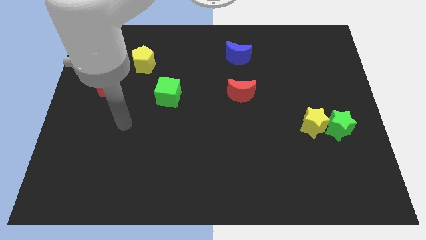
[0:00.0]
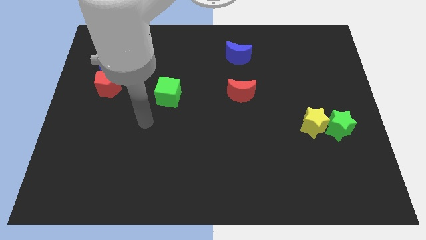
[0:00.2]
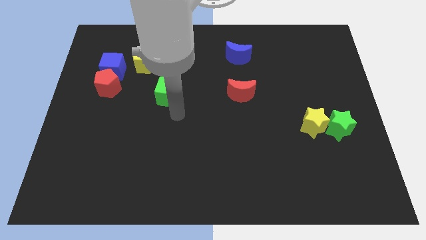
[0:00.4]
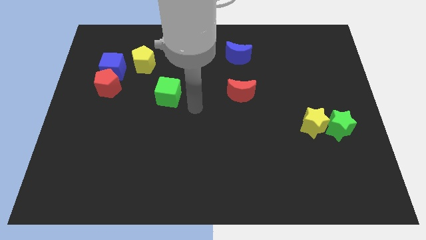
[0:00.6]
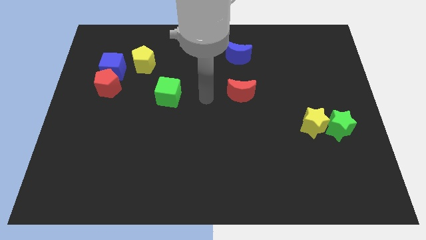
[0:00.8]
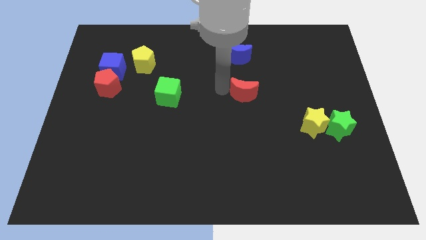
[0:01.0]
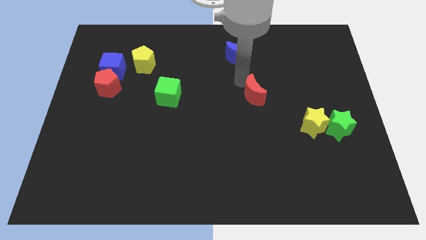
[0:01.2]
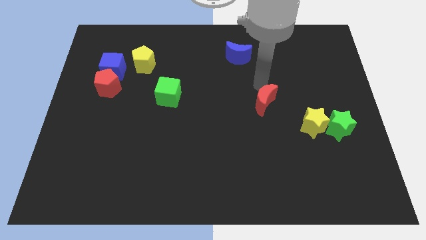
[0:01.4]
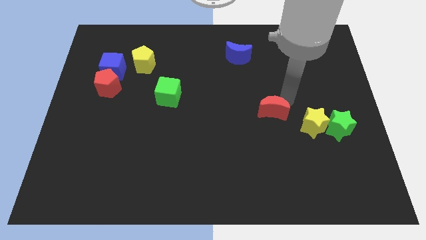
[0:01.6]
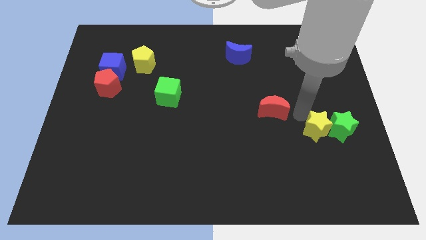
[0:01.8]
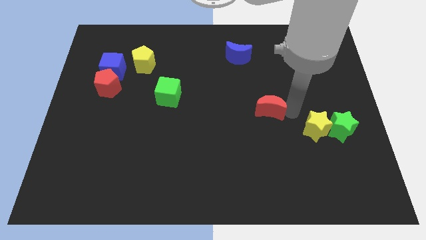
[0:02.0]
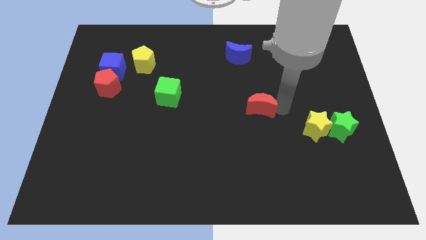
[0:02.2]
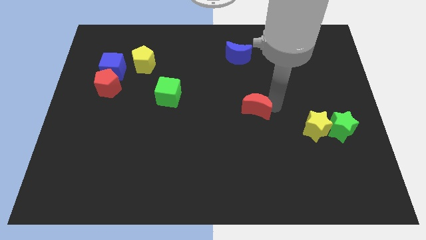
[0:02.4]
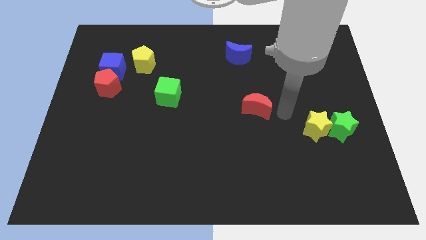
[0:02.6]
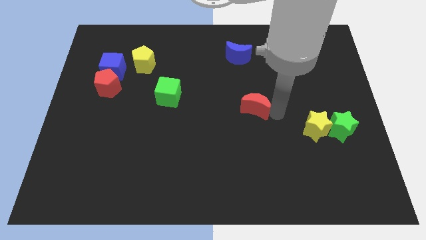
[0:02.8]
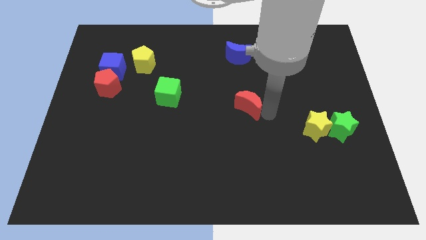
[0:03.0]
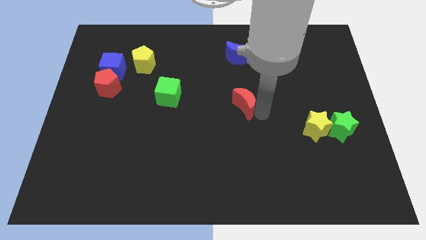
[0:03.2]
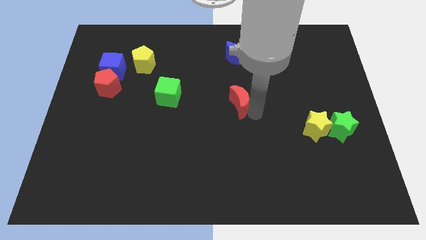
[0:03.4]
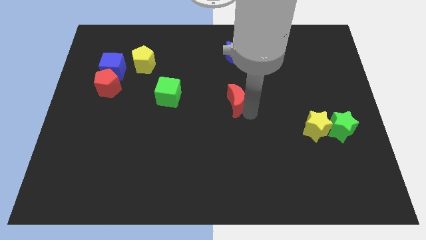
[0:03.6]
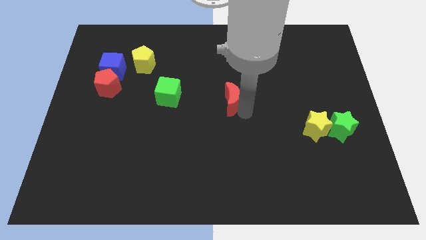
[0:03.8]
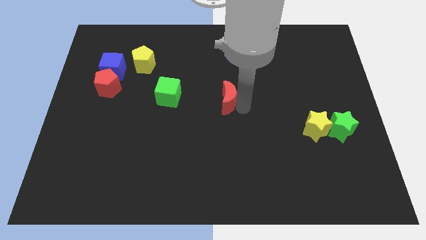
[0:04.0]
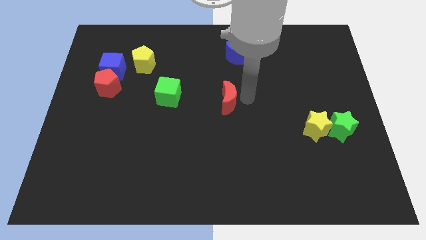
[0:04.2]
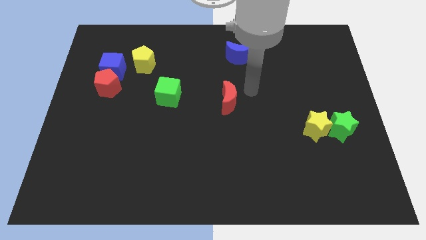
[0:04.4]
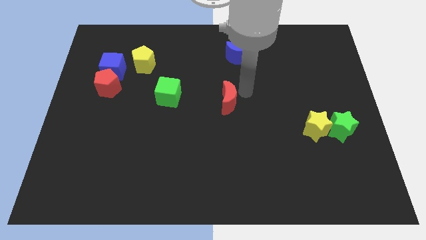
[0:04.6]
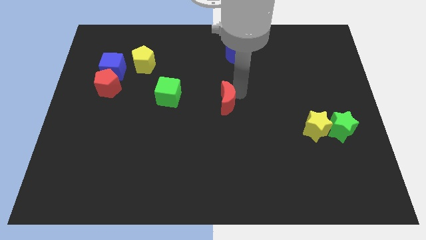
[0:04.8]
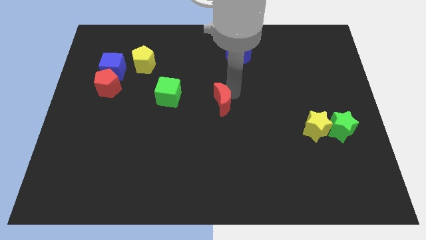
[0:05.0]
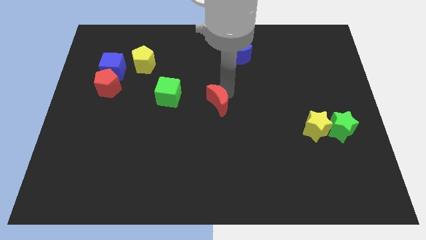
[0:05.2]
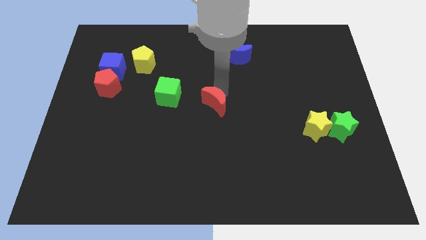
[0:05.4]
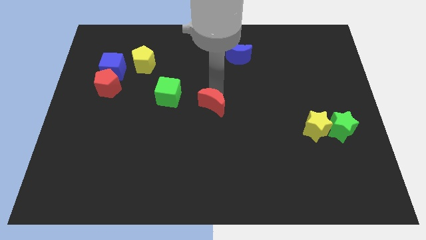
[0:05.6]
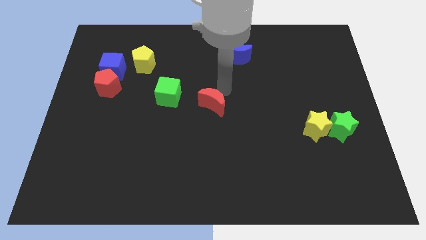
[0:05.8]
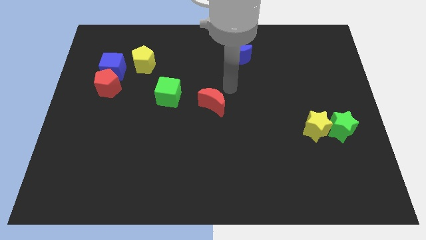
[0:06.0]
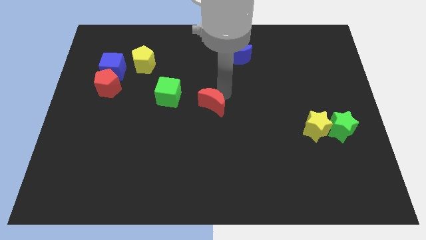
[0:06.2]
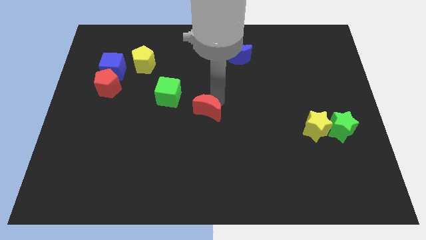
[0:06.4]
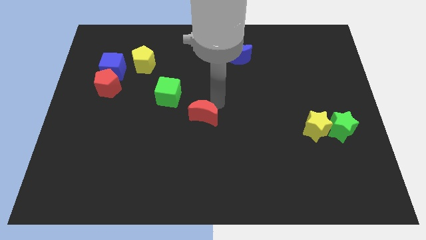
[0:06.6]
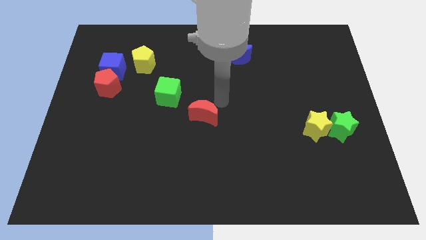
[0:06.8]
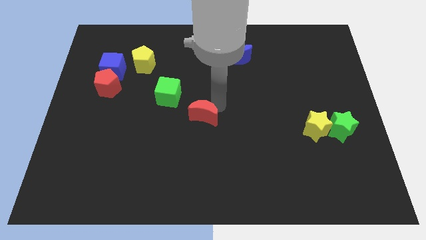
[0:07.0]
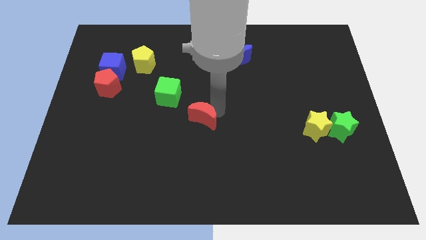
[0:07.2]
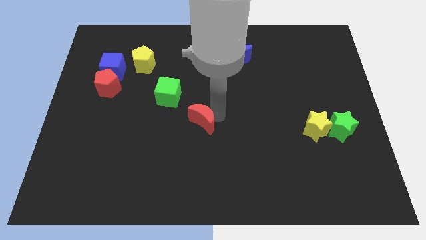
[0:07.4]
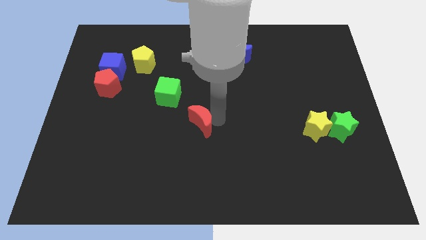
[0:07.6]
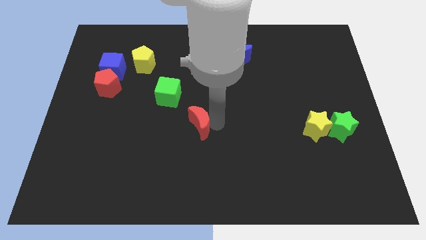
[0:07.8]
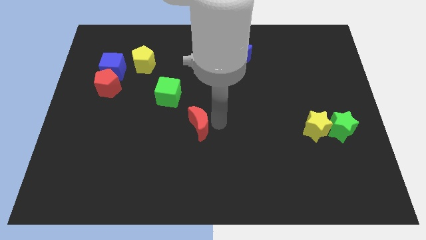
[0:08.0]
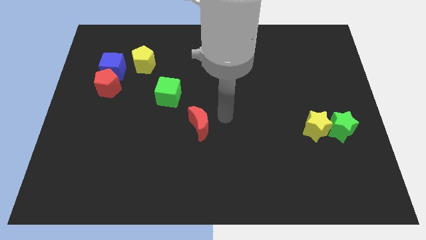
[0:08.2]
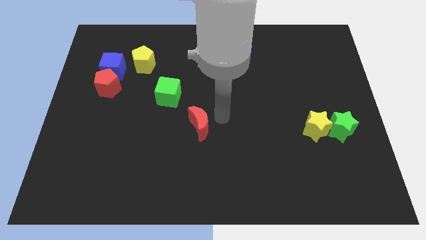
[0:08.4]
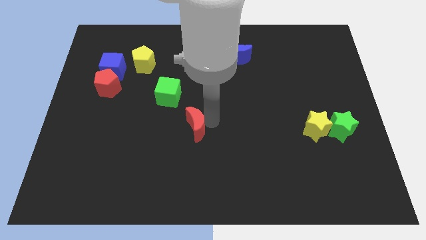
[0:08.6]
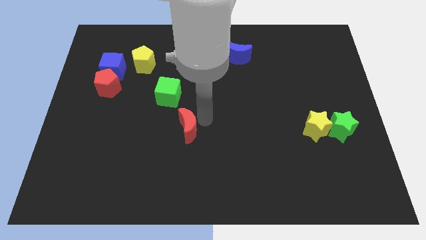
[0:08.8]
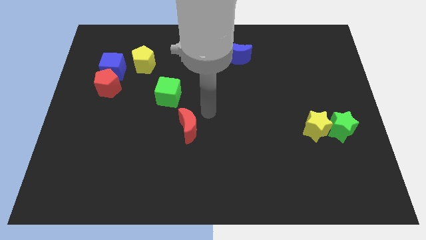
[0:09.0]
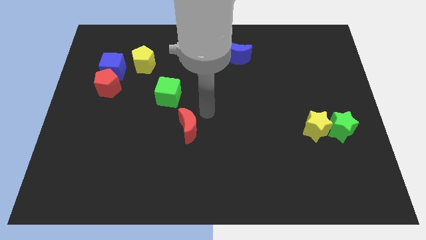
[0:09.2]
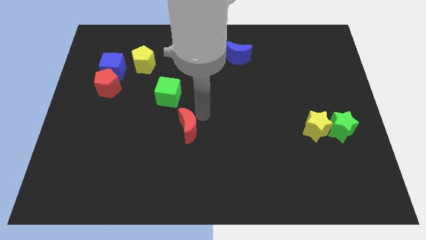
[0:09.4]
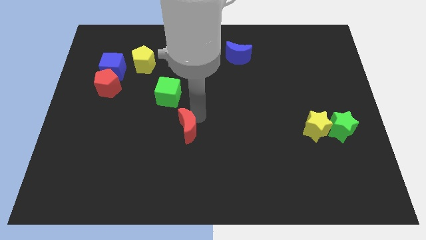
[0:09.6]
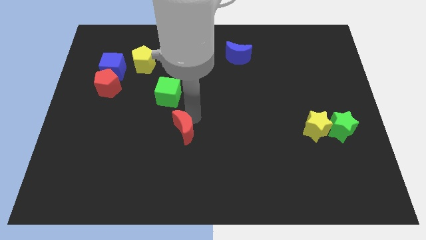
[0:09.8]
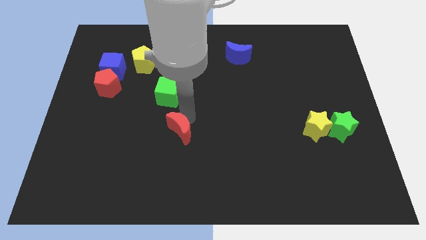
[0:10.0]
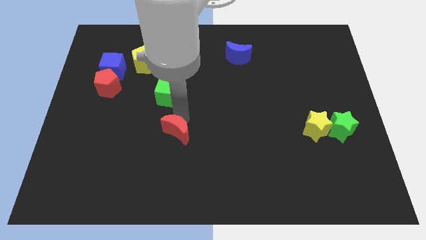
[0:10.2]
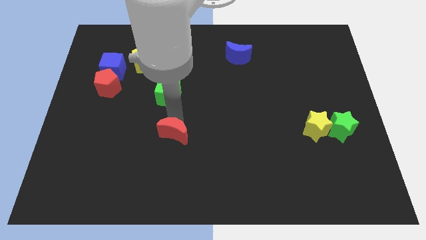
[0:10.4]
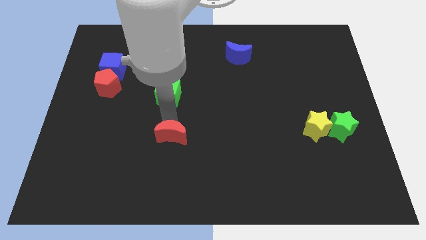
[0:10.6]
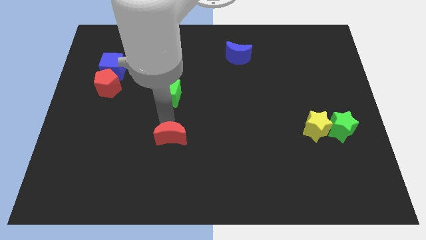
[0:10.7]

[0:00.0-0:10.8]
move the red moon down and to the left

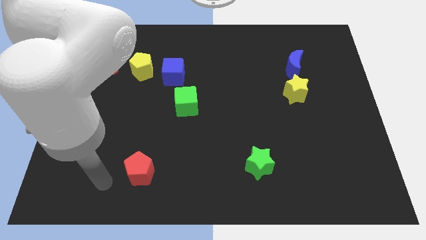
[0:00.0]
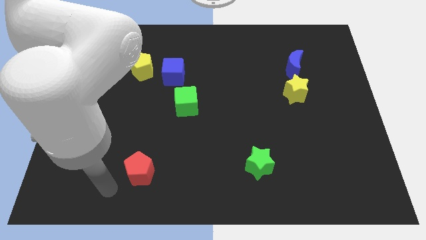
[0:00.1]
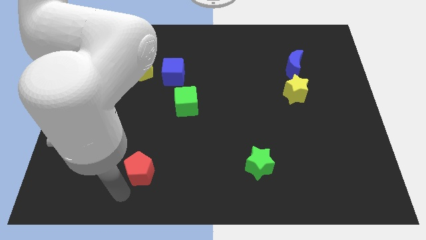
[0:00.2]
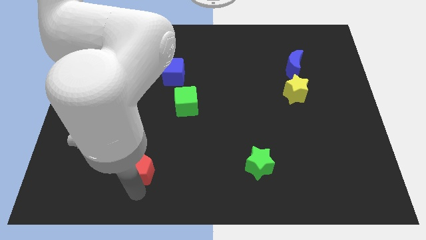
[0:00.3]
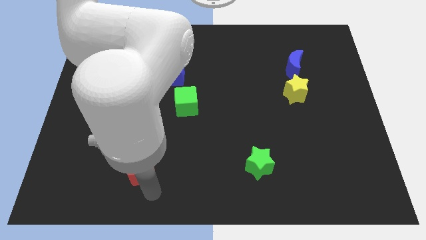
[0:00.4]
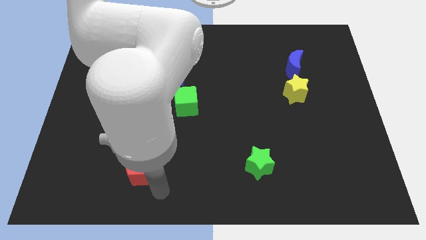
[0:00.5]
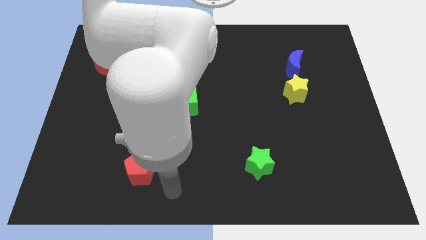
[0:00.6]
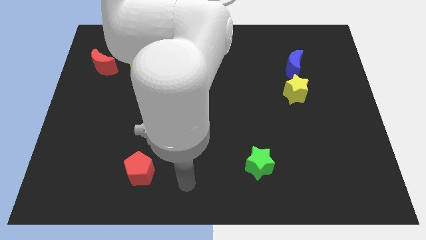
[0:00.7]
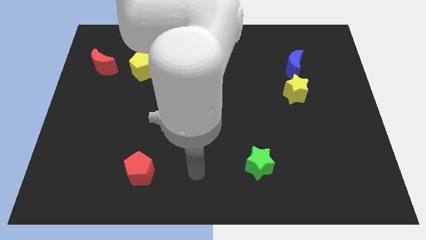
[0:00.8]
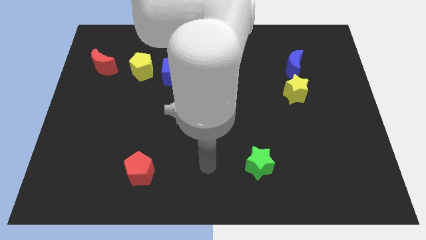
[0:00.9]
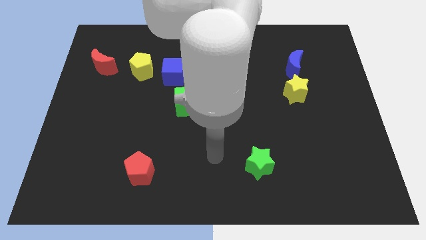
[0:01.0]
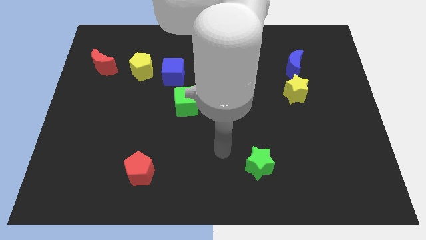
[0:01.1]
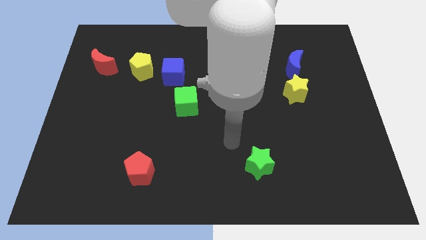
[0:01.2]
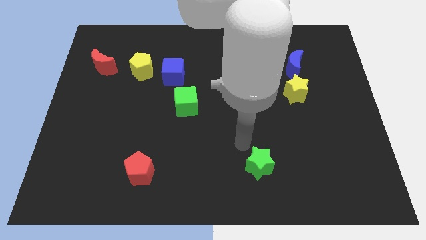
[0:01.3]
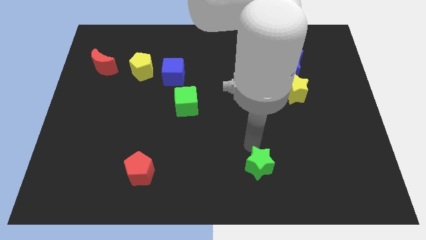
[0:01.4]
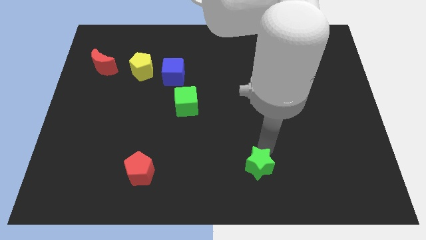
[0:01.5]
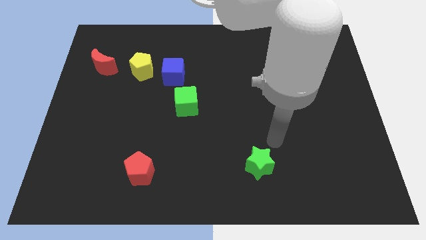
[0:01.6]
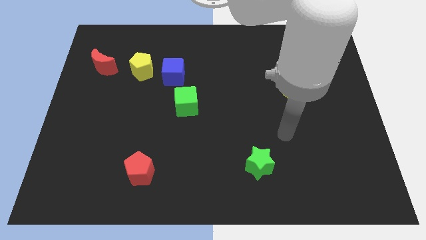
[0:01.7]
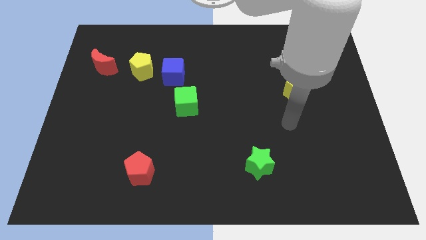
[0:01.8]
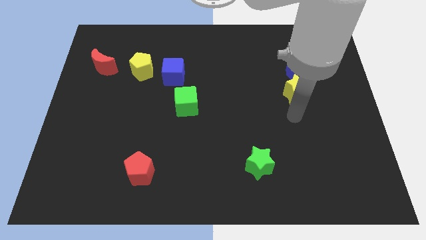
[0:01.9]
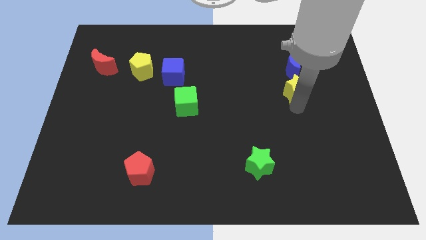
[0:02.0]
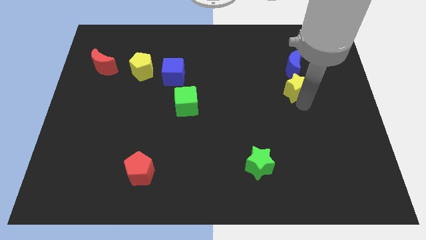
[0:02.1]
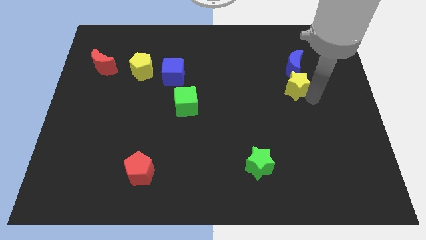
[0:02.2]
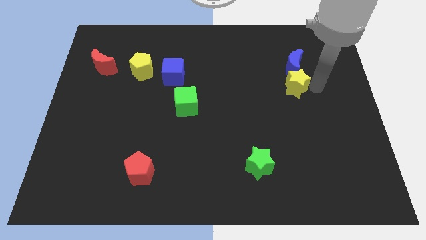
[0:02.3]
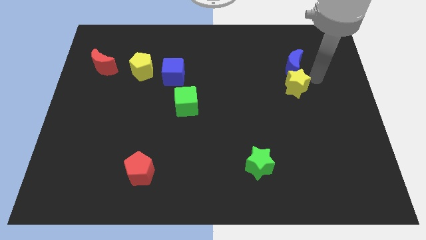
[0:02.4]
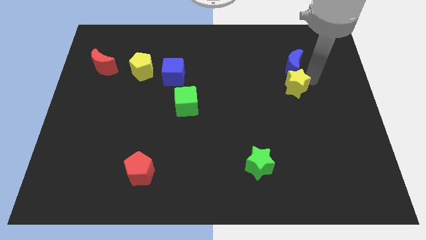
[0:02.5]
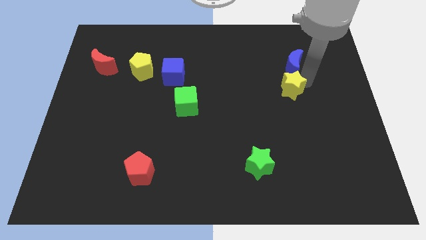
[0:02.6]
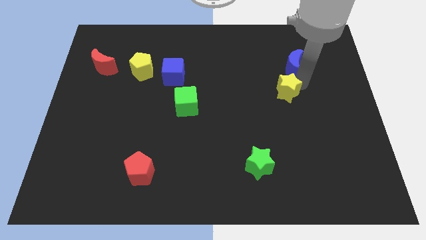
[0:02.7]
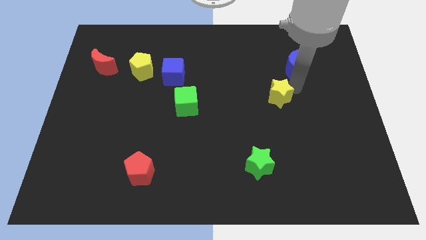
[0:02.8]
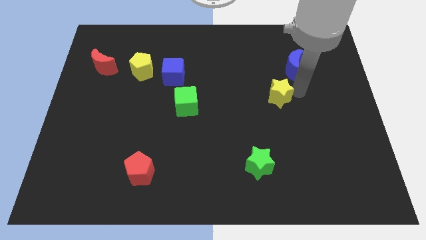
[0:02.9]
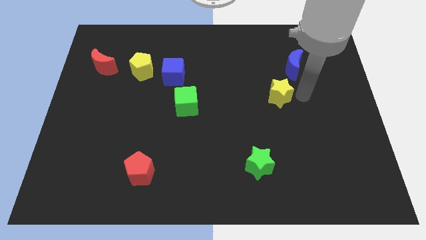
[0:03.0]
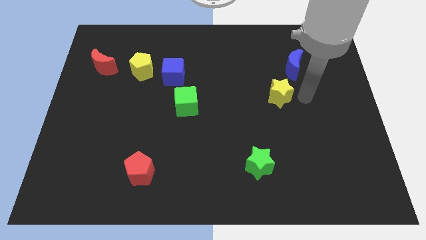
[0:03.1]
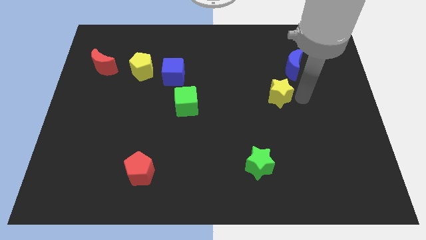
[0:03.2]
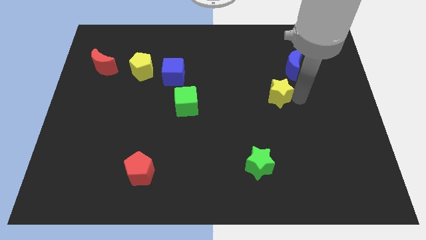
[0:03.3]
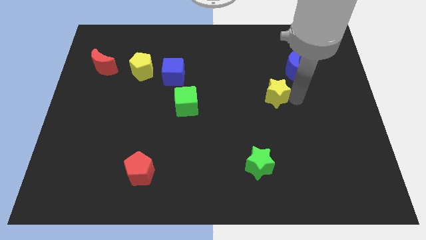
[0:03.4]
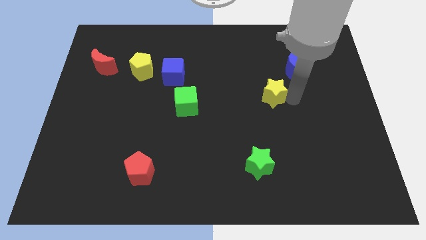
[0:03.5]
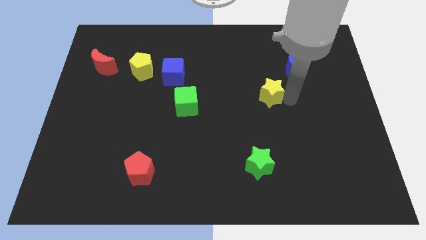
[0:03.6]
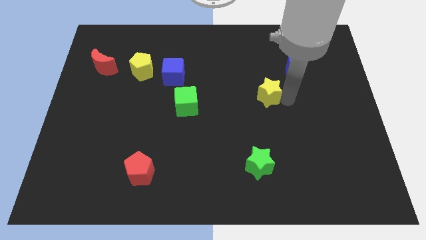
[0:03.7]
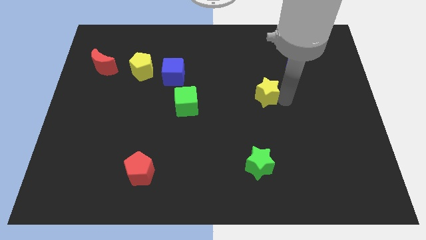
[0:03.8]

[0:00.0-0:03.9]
move the yellow star to the left a bit
